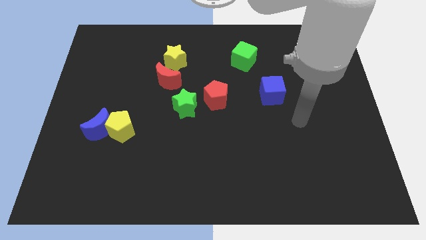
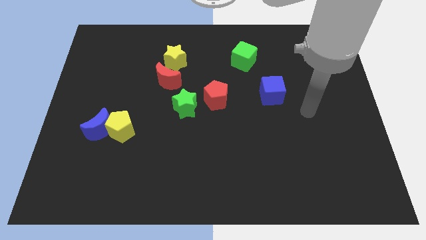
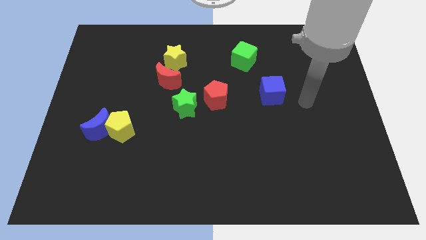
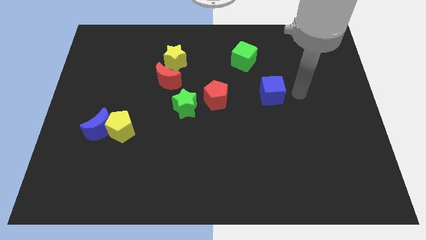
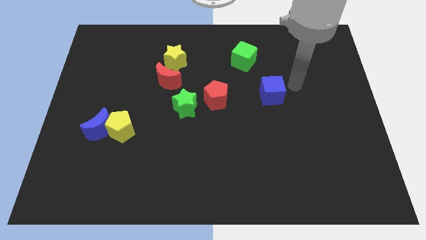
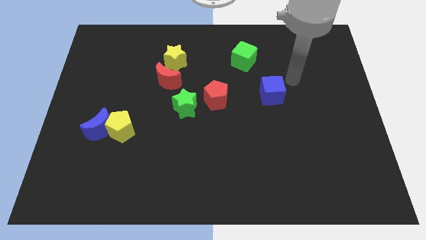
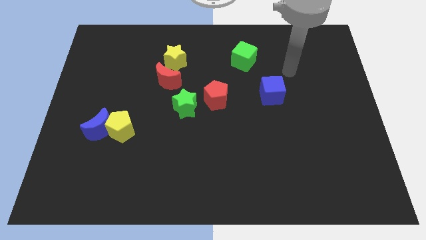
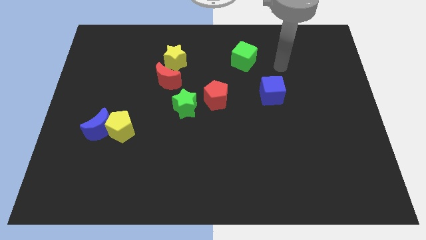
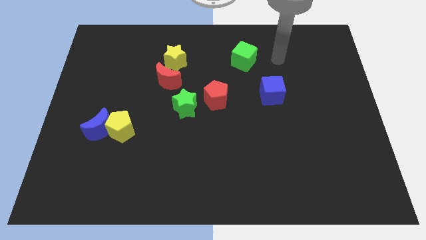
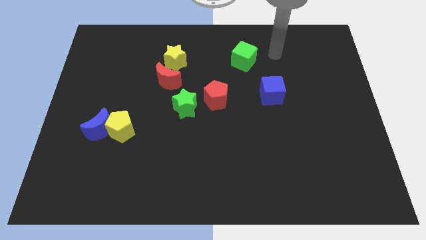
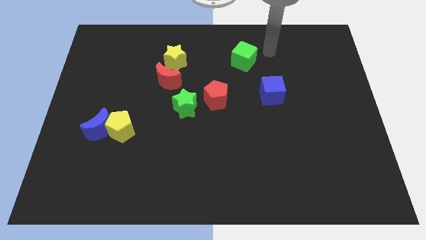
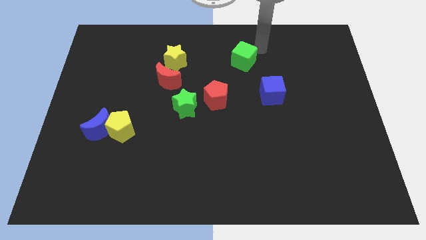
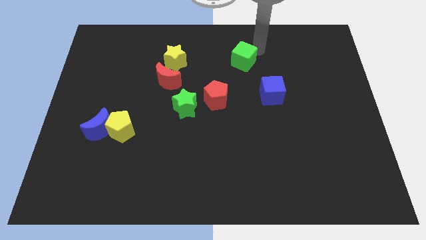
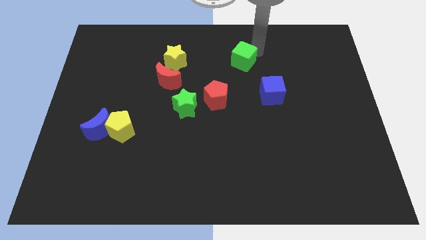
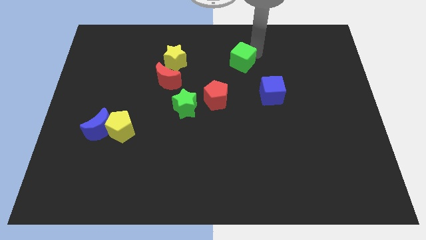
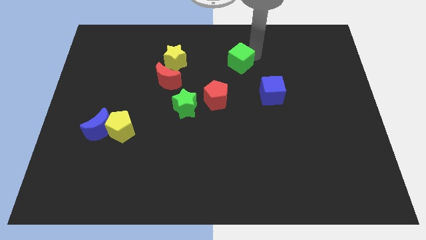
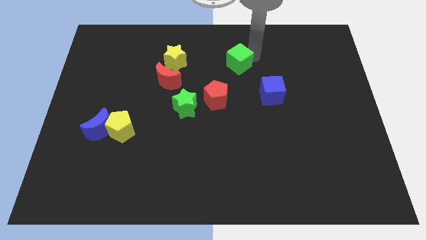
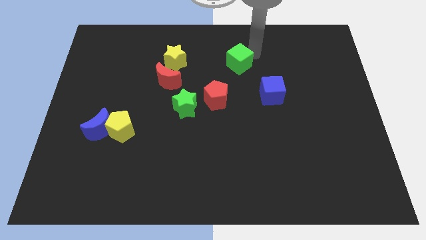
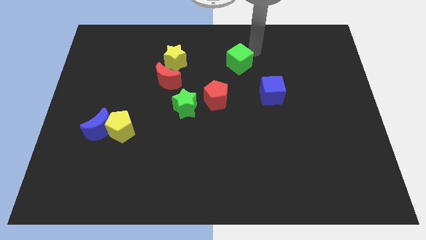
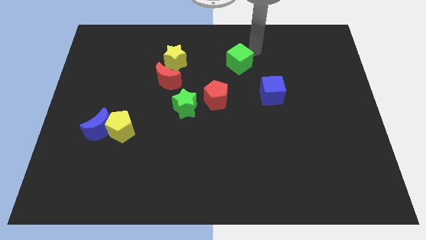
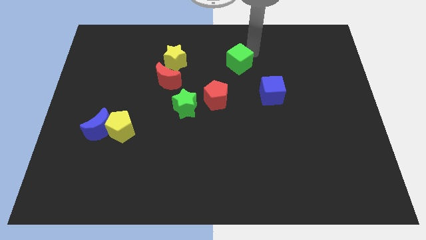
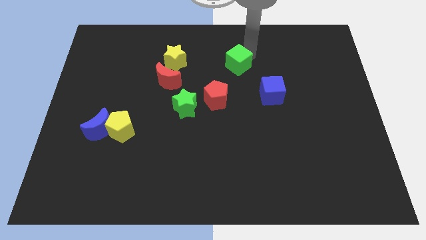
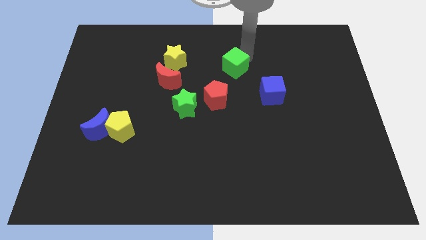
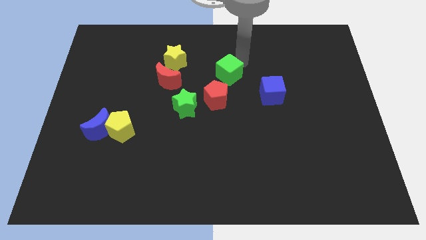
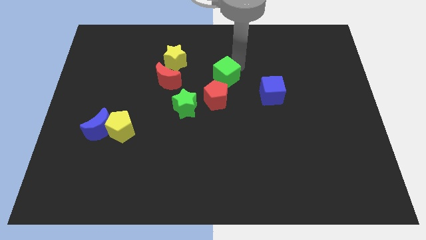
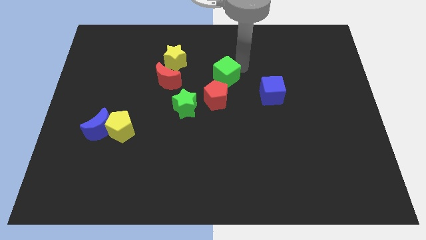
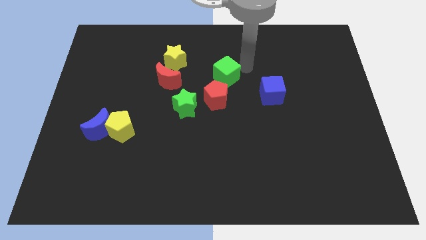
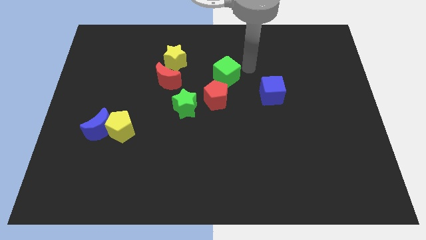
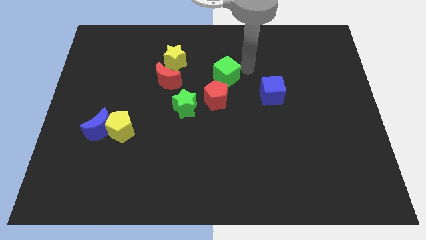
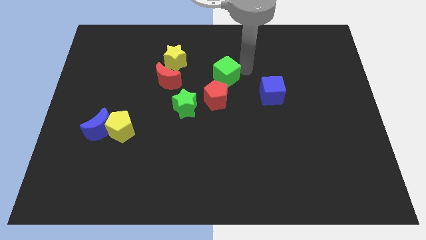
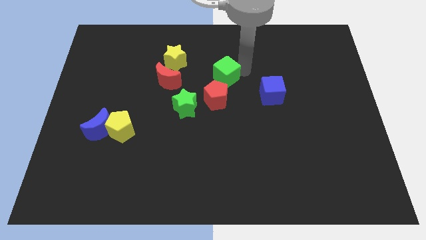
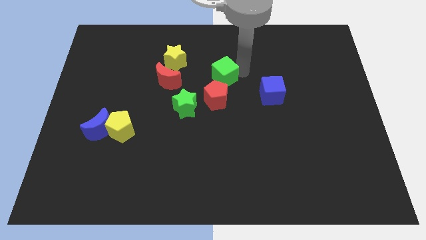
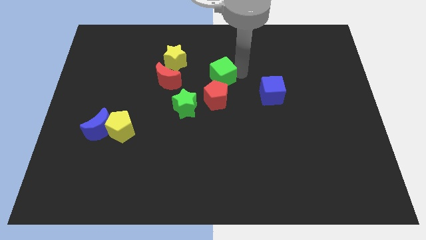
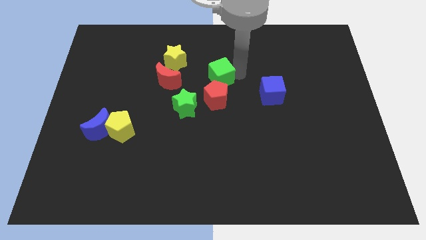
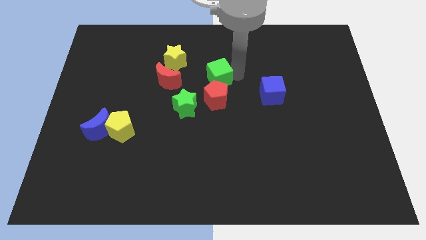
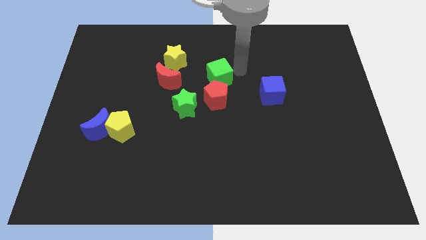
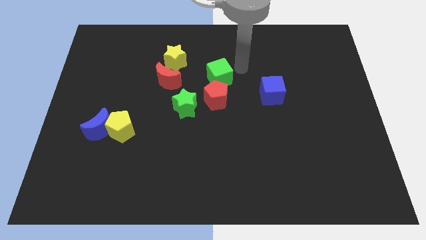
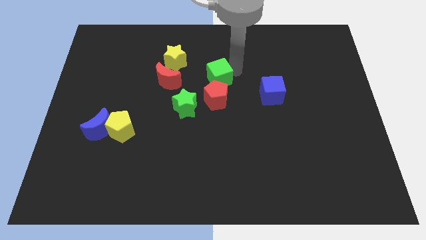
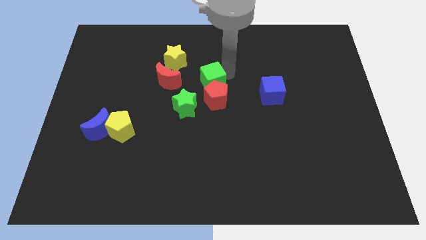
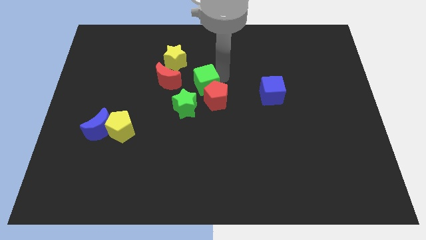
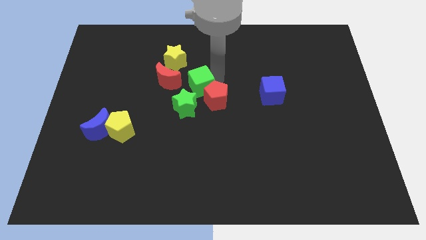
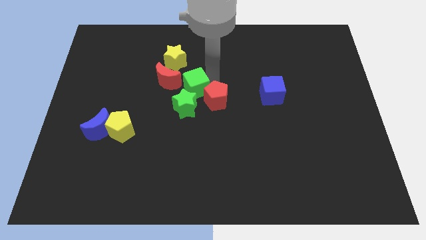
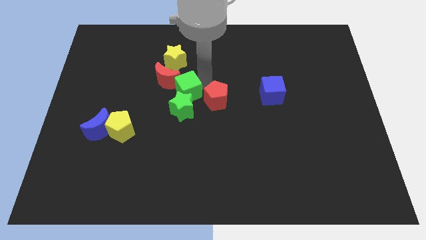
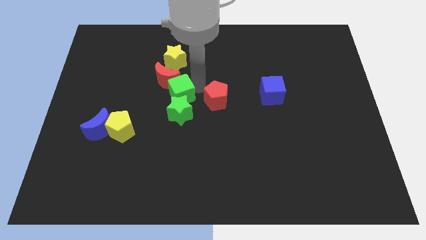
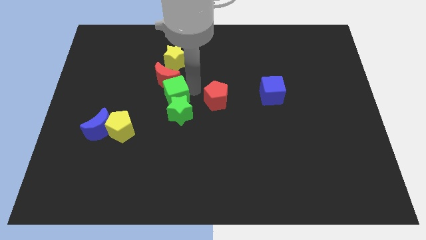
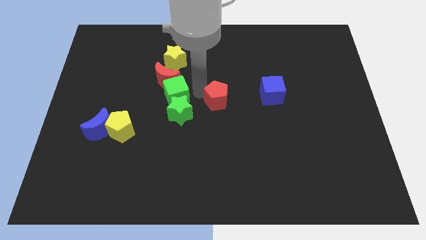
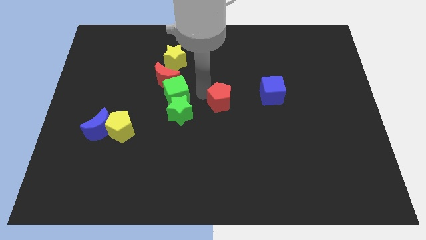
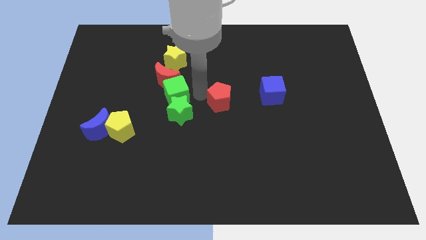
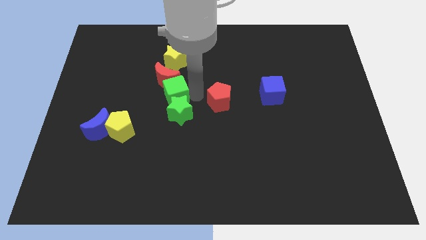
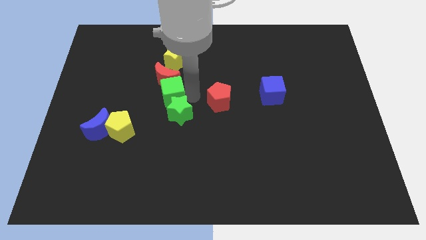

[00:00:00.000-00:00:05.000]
slide the green cube to the bottom left side of the red moon

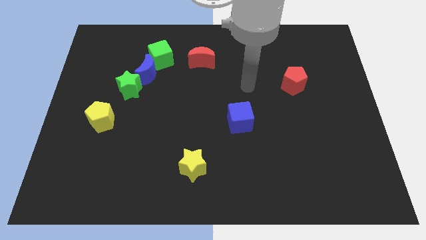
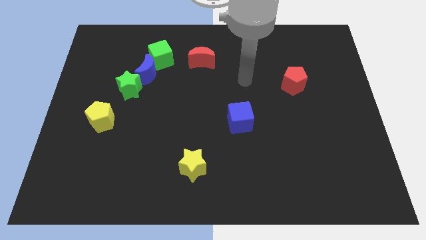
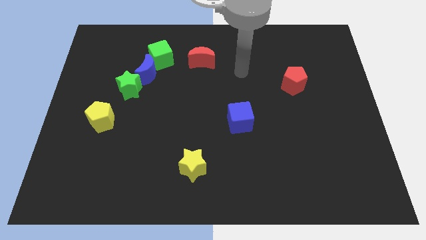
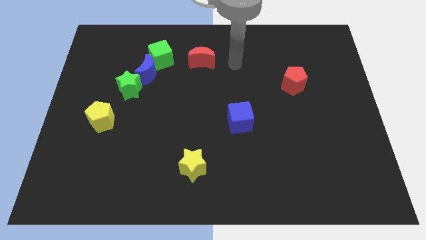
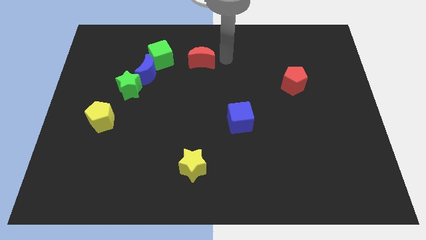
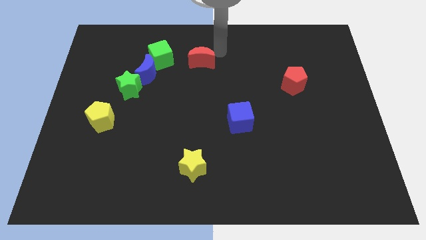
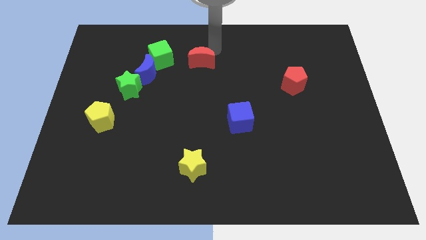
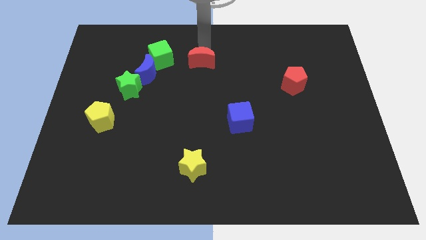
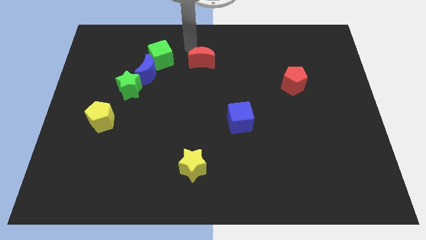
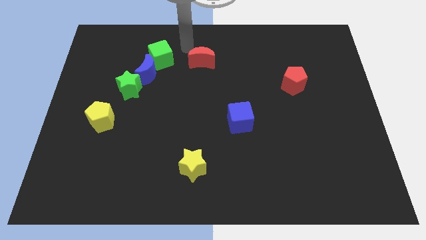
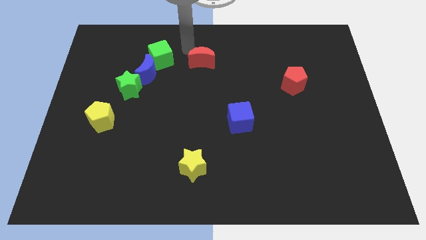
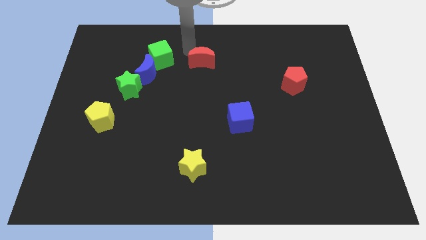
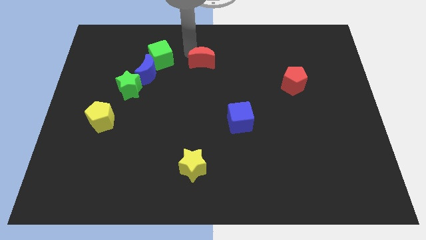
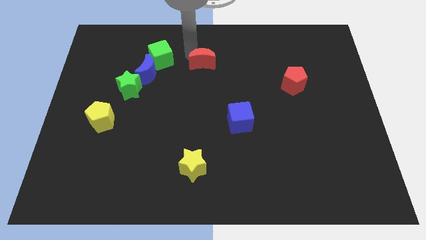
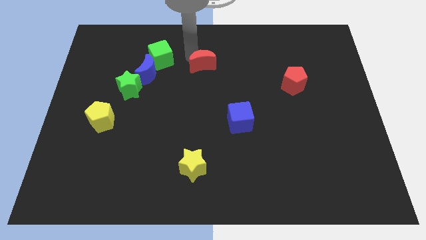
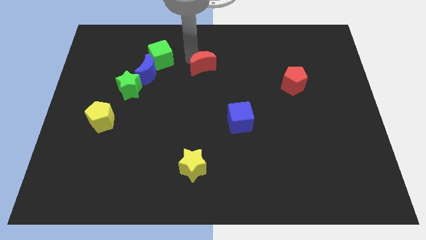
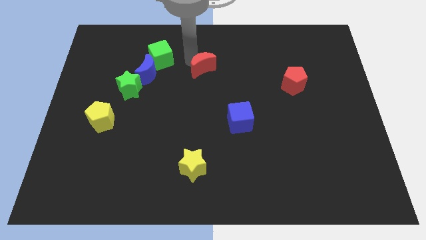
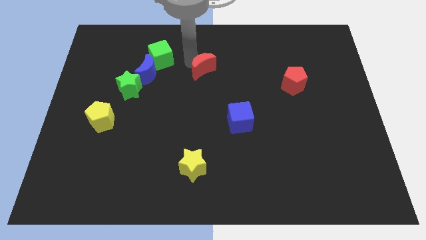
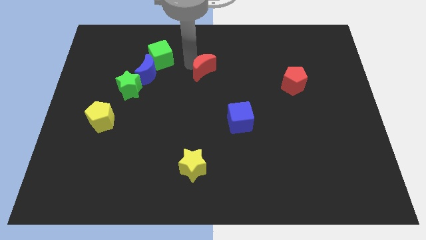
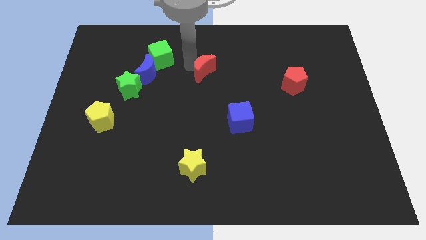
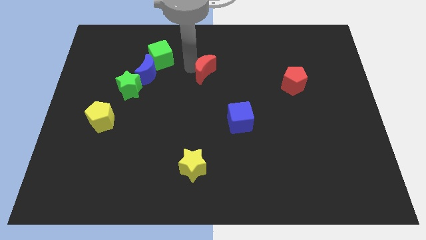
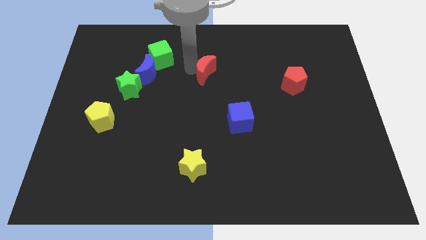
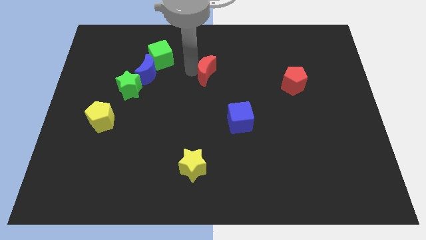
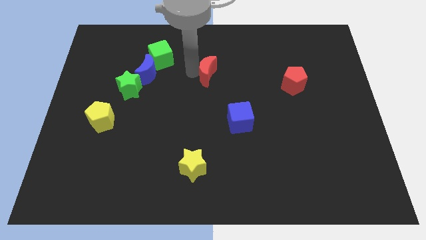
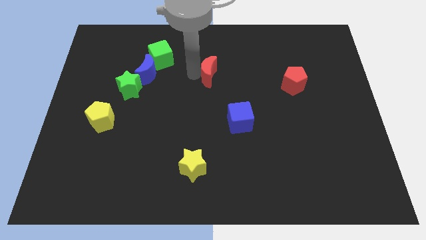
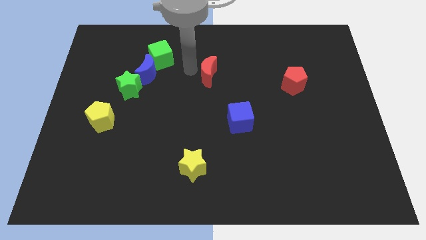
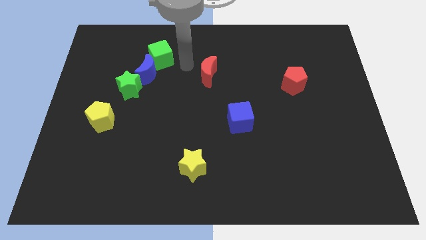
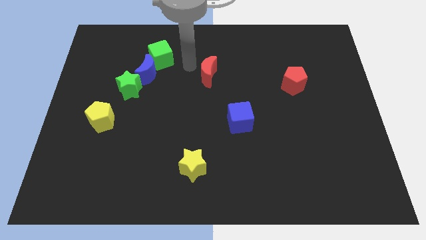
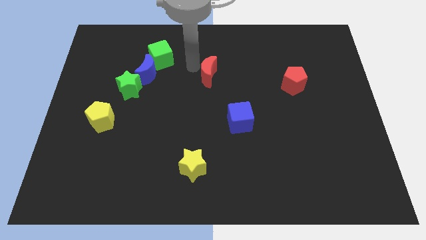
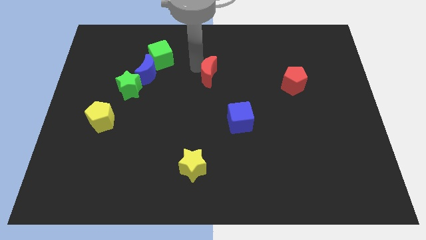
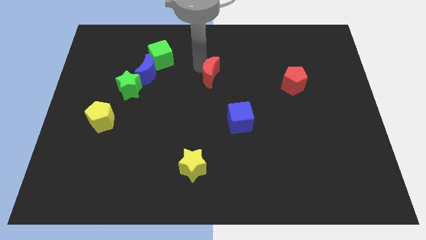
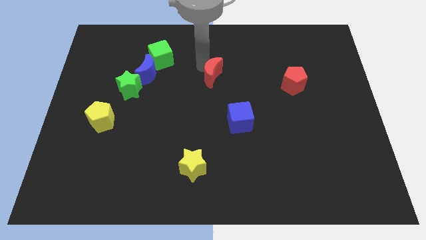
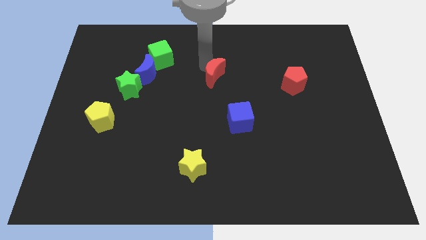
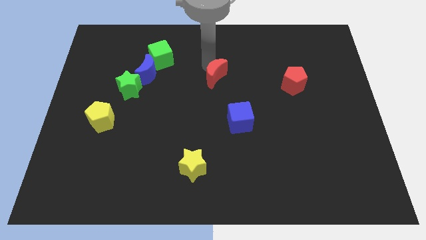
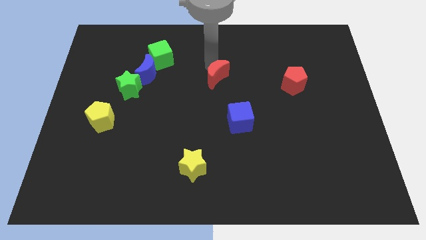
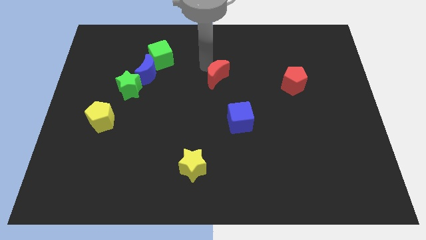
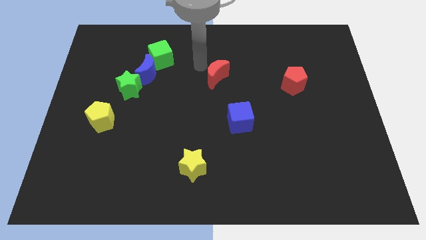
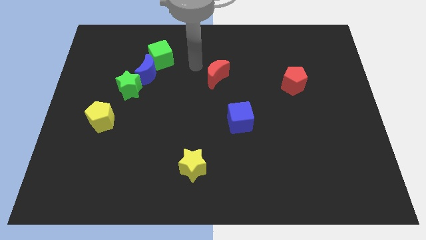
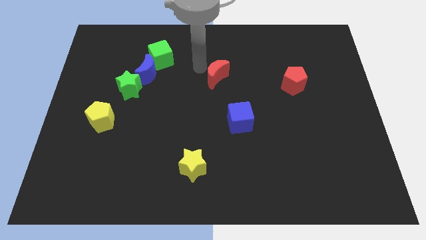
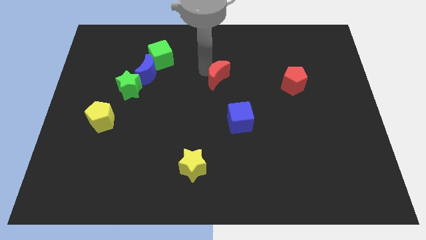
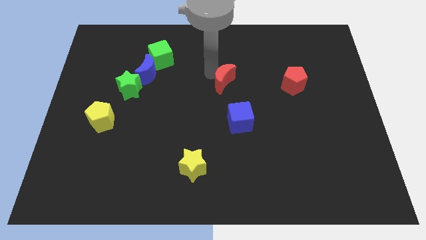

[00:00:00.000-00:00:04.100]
push the red moon to the top side of the blue cube
